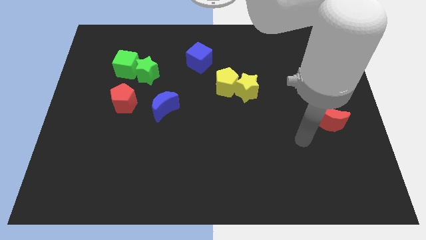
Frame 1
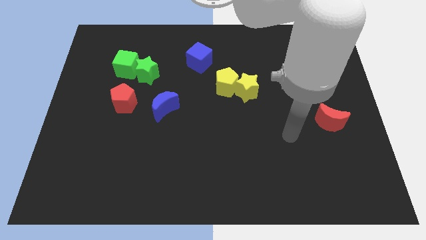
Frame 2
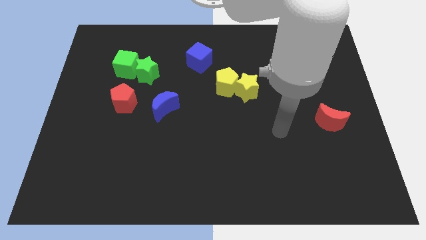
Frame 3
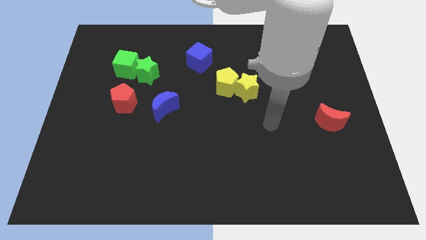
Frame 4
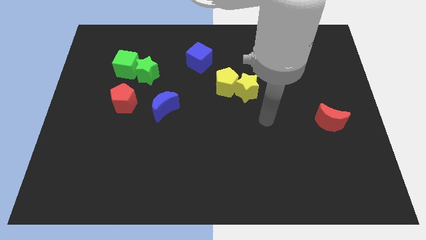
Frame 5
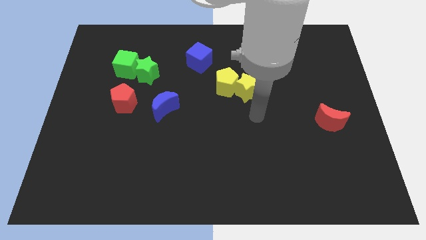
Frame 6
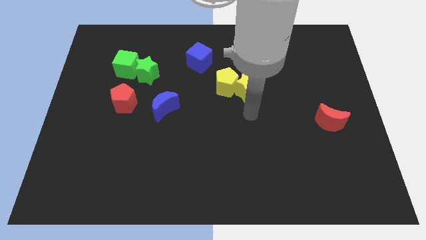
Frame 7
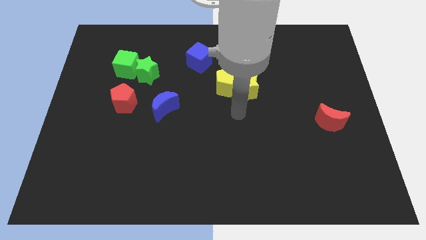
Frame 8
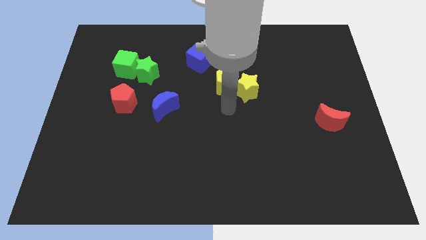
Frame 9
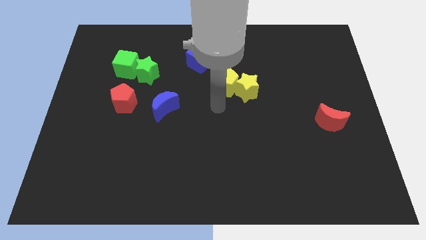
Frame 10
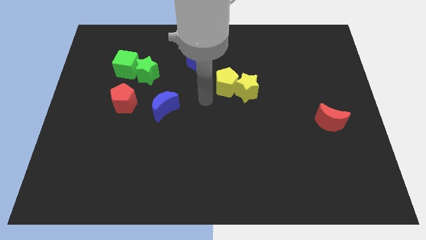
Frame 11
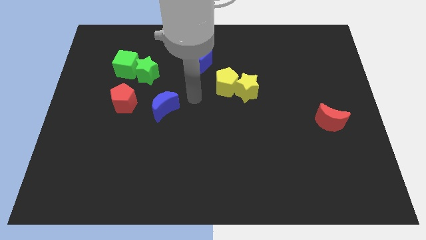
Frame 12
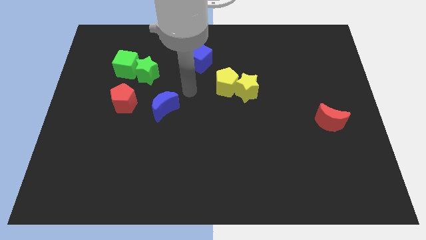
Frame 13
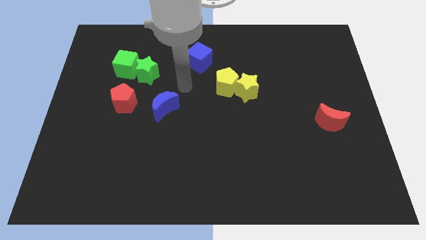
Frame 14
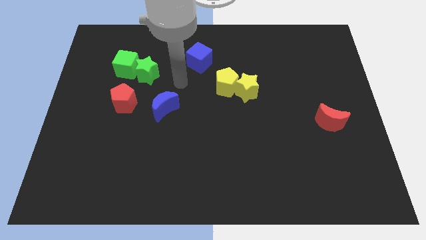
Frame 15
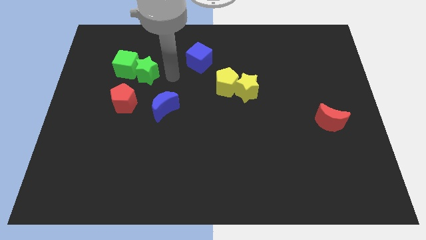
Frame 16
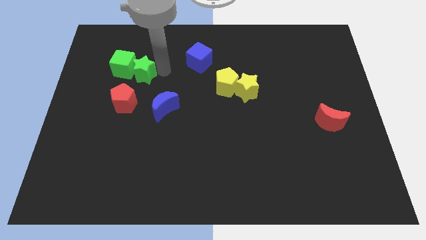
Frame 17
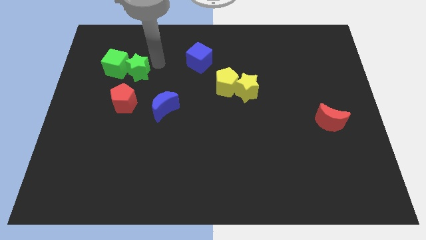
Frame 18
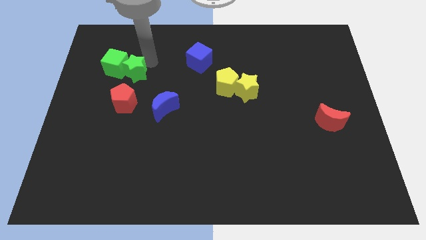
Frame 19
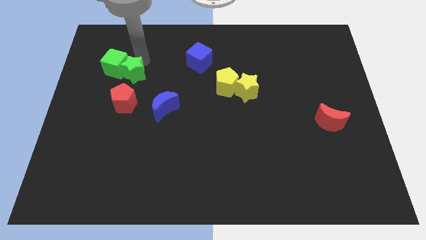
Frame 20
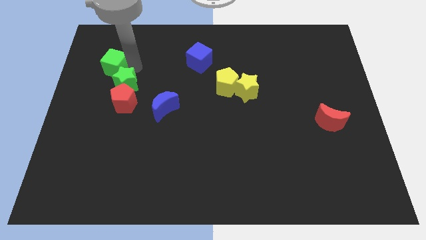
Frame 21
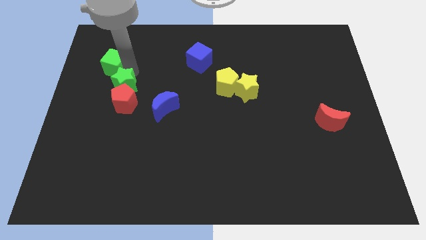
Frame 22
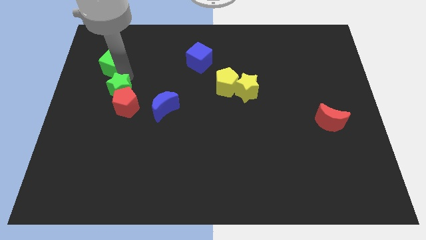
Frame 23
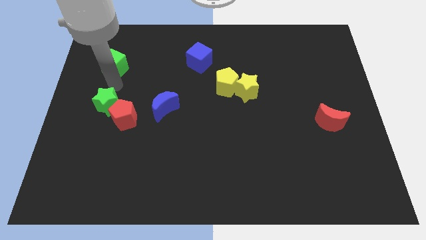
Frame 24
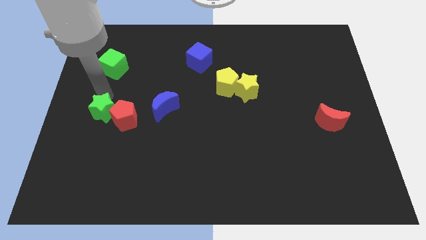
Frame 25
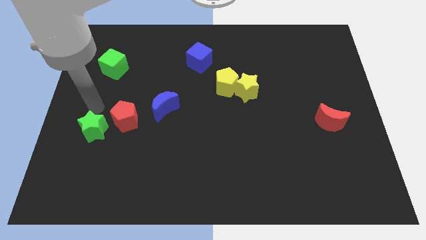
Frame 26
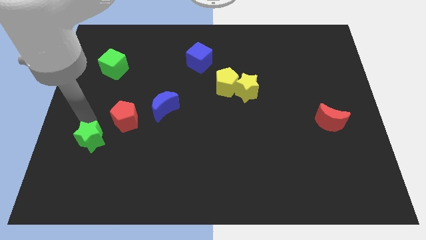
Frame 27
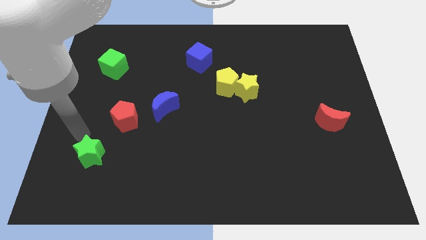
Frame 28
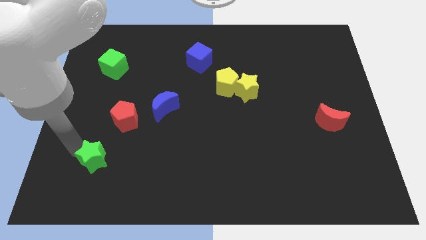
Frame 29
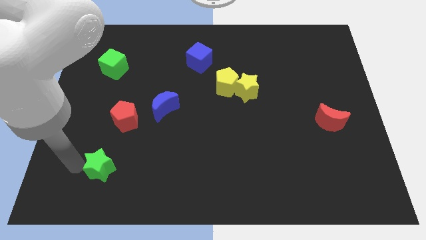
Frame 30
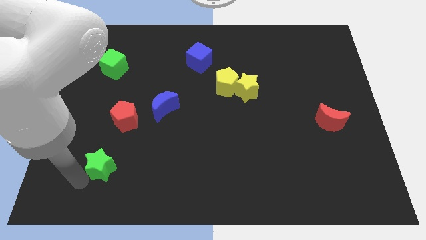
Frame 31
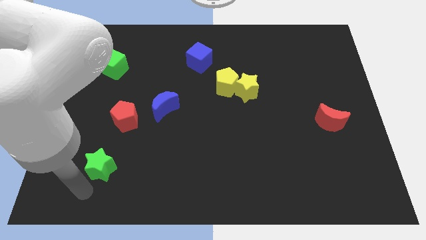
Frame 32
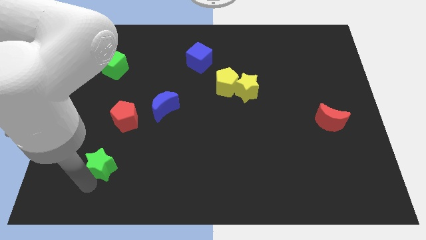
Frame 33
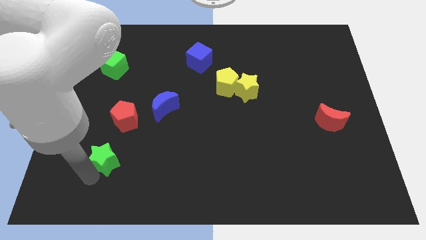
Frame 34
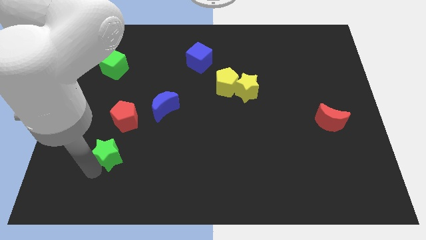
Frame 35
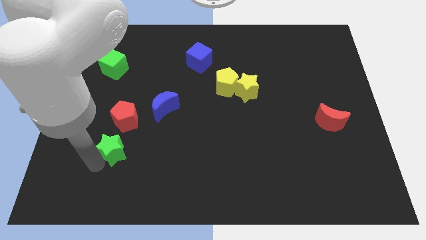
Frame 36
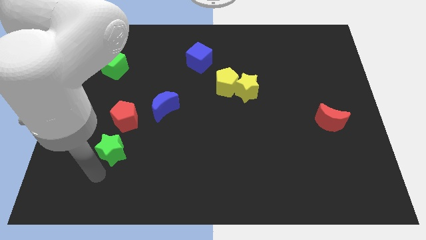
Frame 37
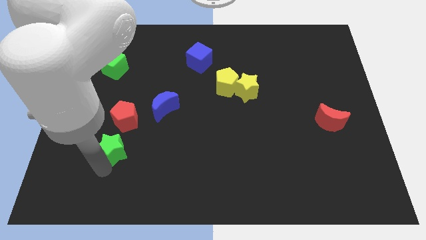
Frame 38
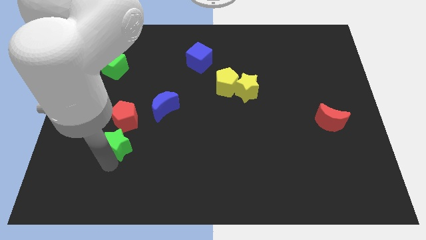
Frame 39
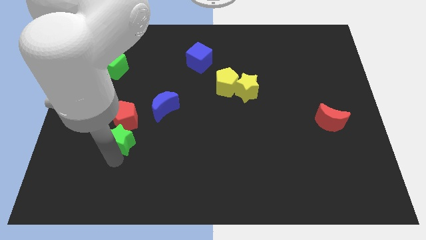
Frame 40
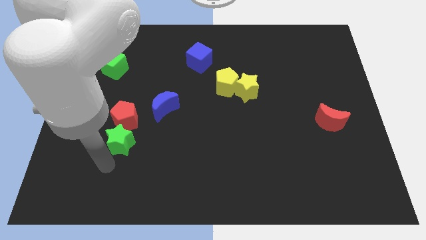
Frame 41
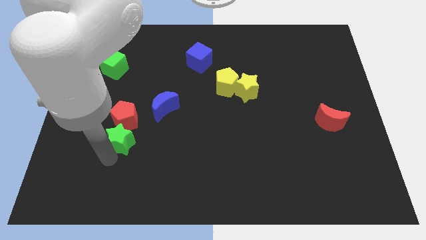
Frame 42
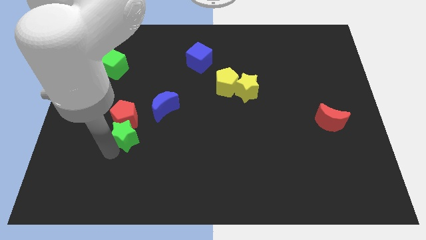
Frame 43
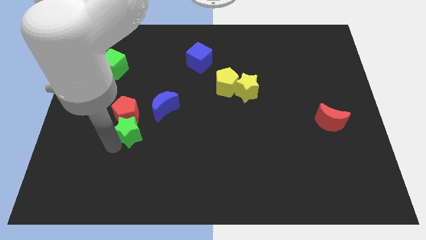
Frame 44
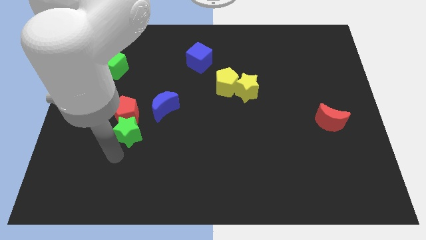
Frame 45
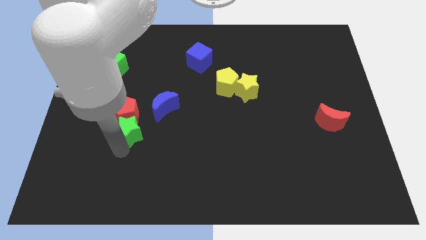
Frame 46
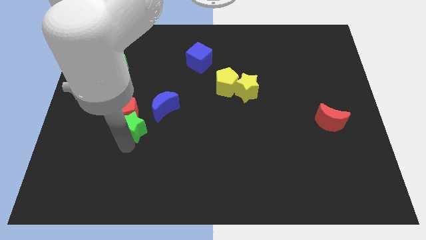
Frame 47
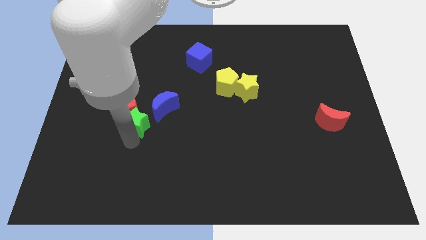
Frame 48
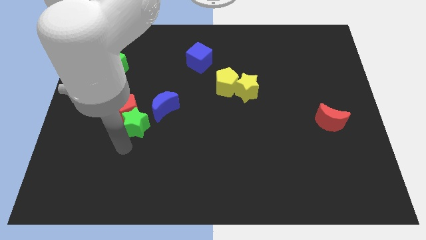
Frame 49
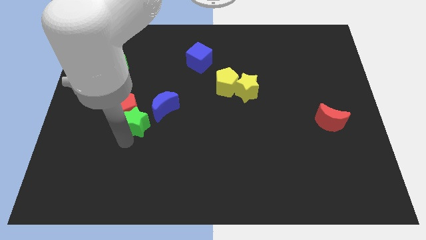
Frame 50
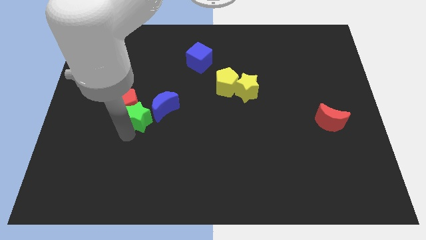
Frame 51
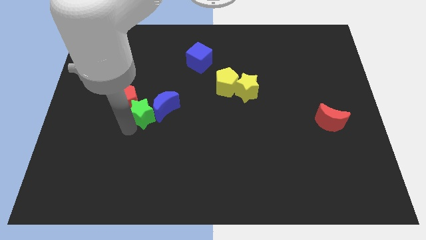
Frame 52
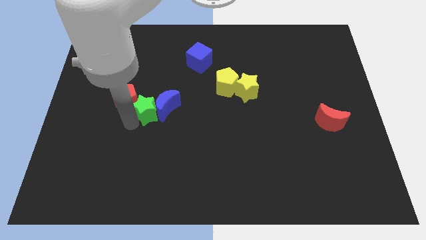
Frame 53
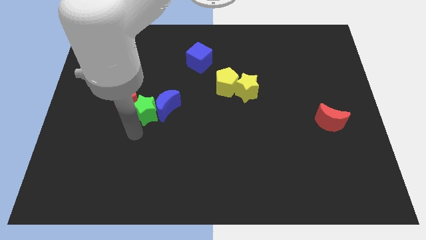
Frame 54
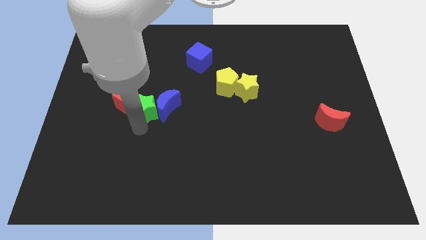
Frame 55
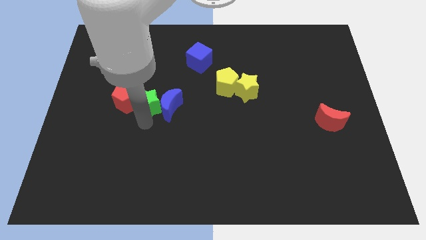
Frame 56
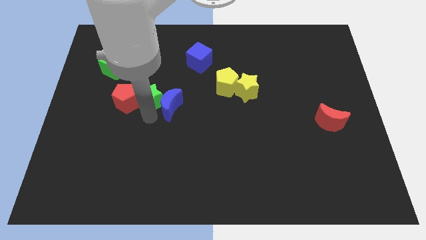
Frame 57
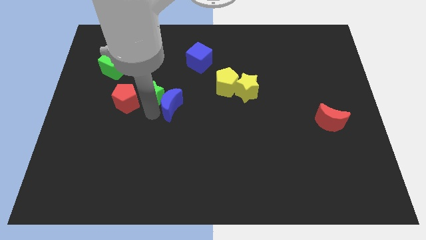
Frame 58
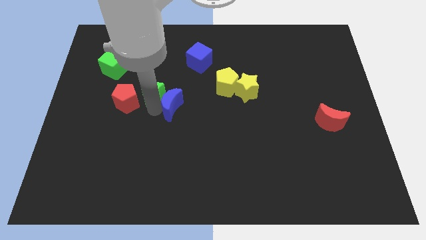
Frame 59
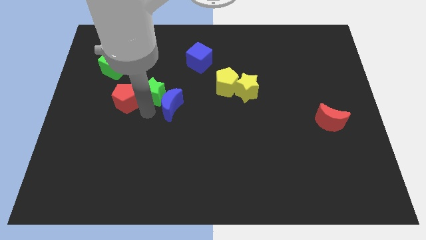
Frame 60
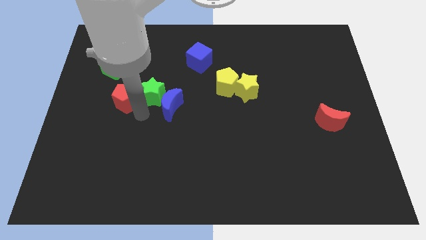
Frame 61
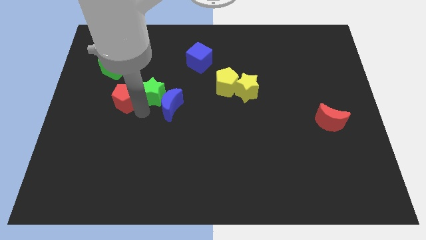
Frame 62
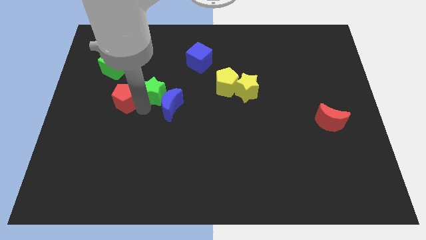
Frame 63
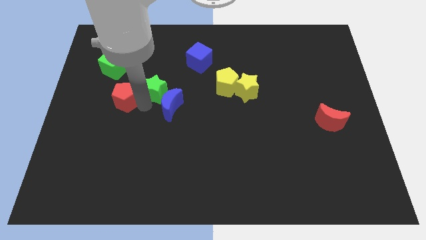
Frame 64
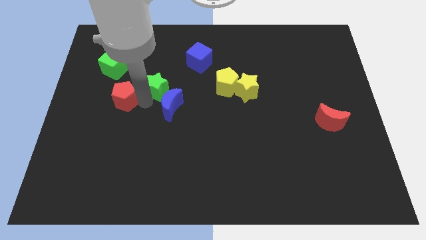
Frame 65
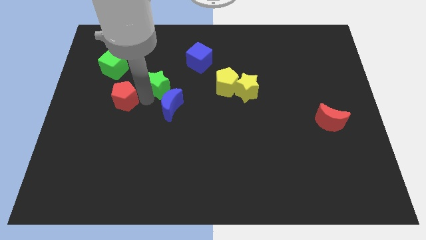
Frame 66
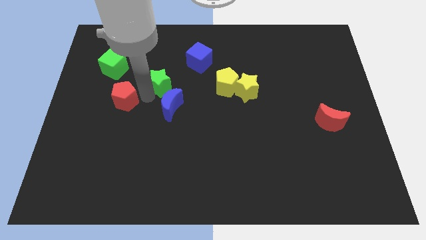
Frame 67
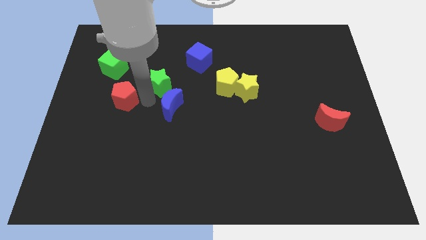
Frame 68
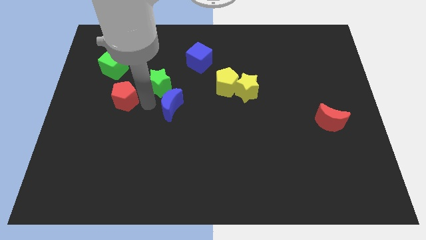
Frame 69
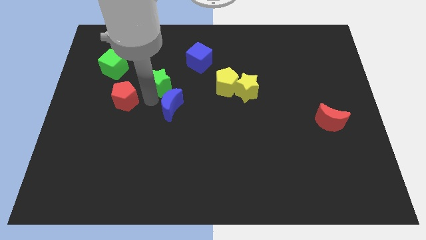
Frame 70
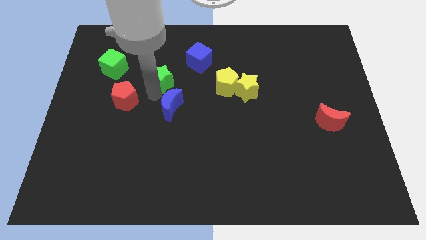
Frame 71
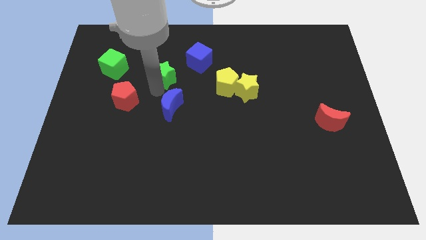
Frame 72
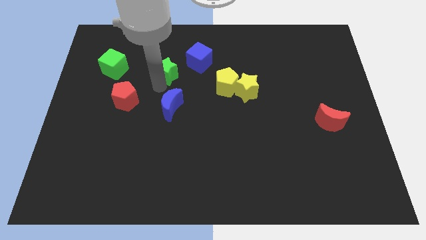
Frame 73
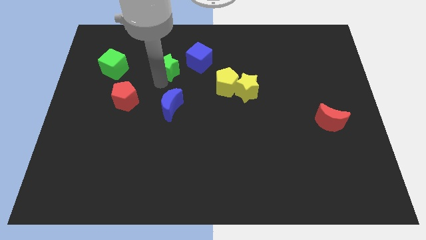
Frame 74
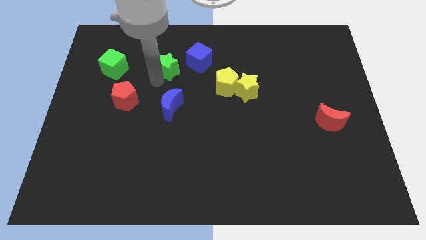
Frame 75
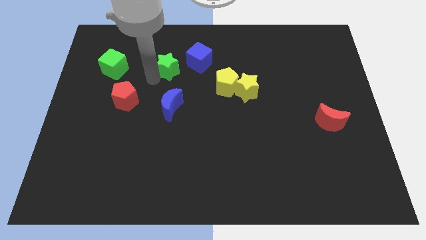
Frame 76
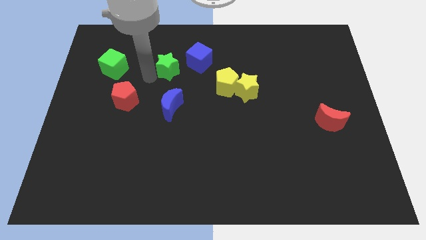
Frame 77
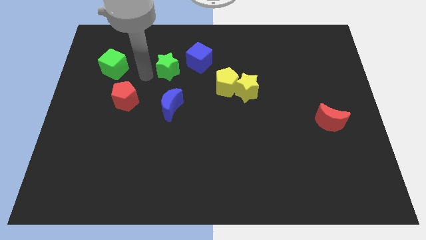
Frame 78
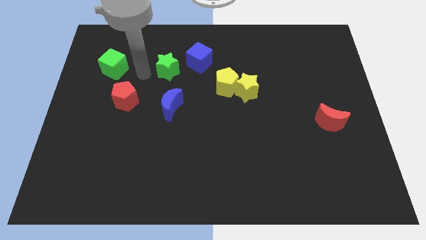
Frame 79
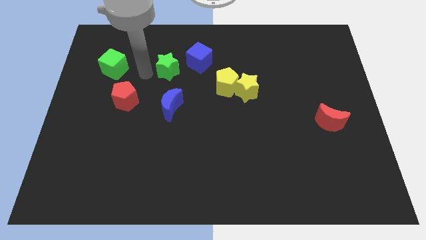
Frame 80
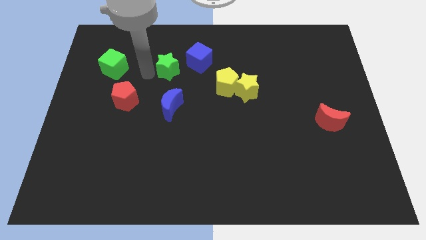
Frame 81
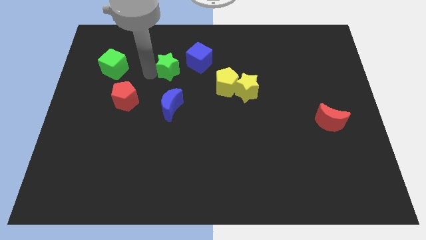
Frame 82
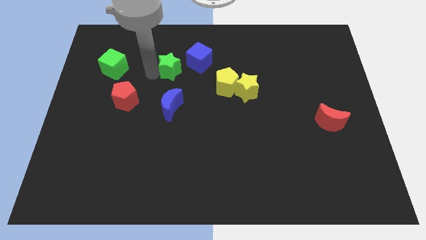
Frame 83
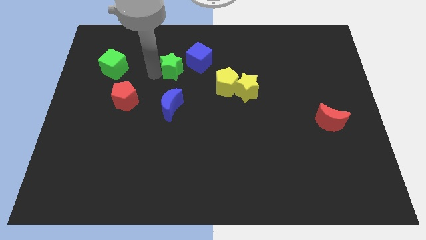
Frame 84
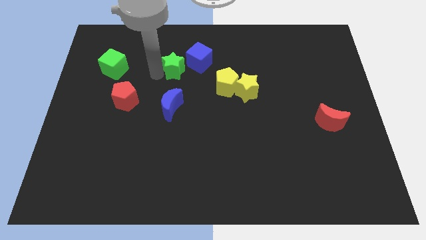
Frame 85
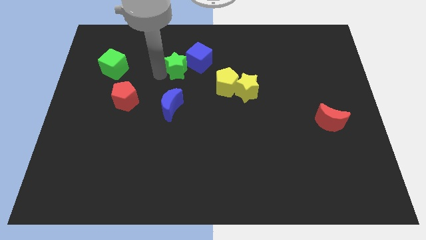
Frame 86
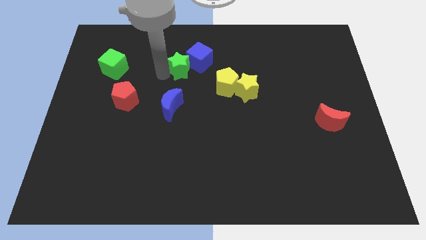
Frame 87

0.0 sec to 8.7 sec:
push the green star to the blue cube
